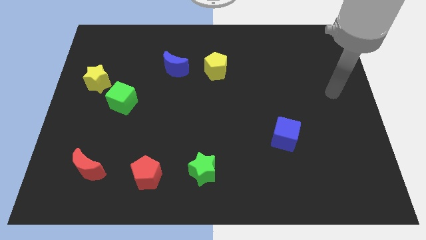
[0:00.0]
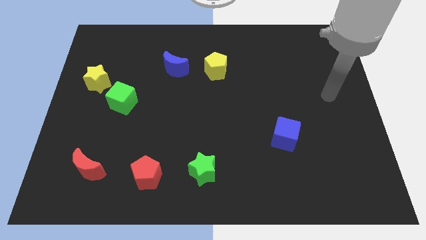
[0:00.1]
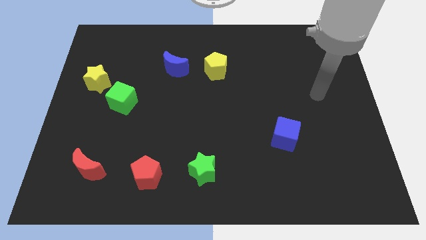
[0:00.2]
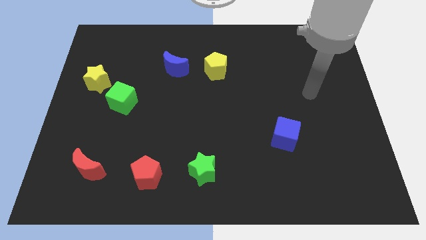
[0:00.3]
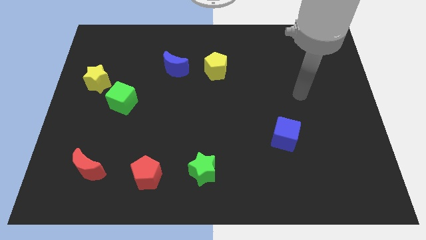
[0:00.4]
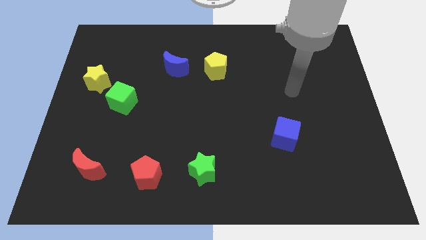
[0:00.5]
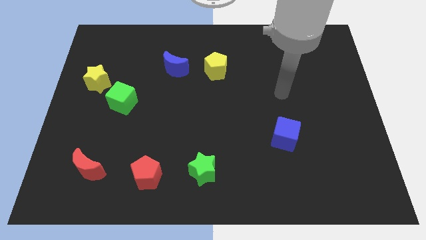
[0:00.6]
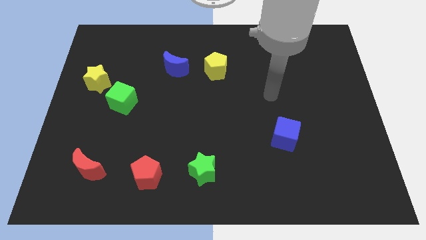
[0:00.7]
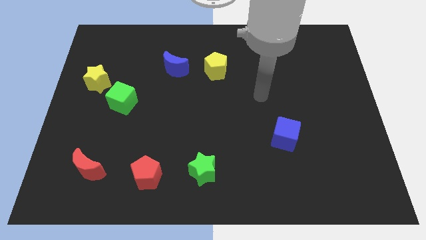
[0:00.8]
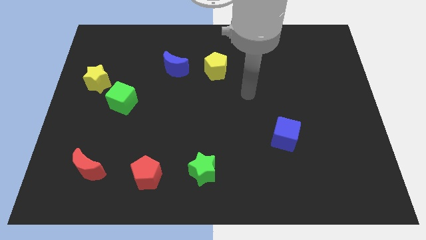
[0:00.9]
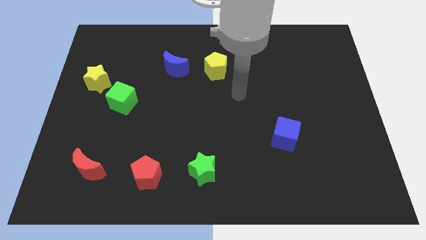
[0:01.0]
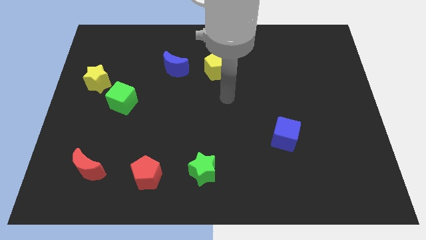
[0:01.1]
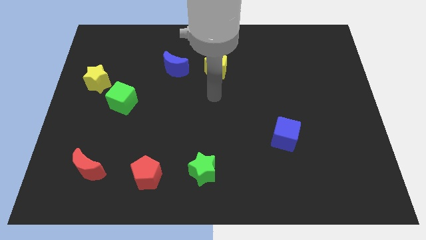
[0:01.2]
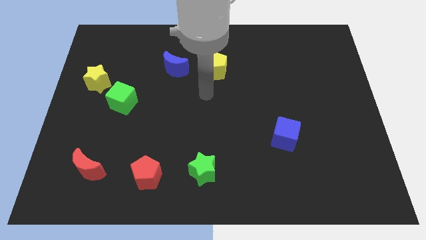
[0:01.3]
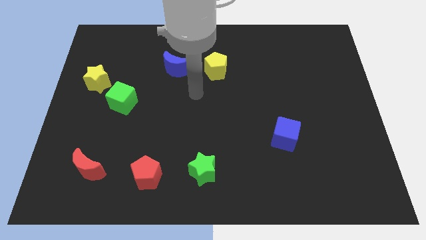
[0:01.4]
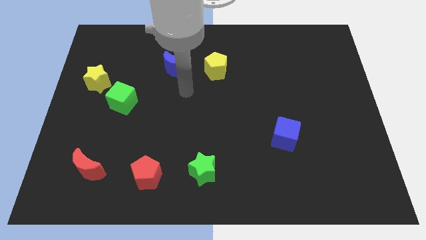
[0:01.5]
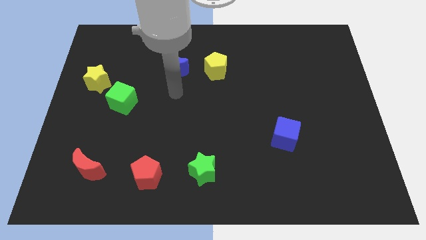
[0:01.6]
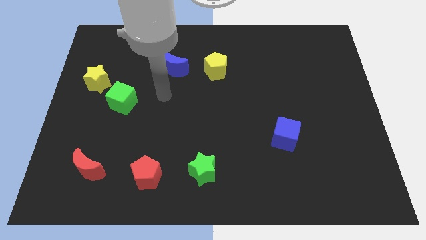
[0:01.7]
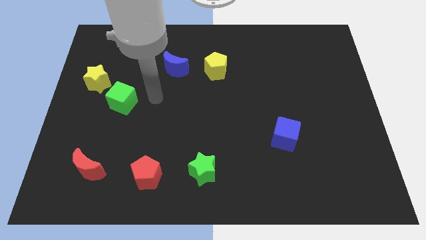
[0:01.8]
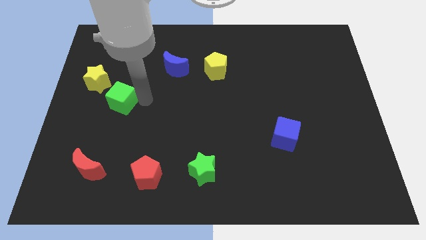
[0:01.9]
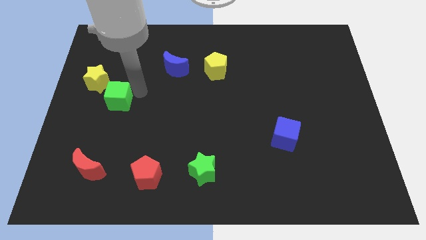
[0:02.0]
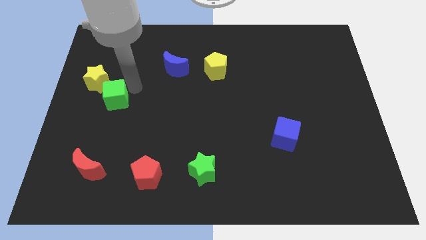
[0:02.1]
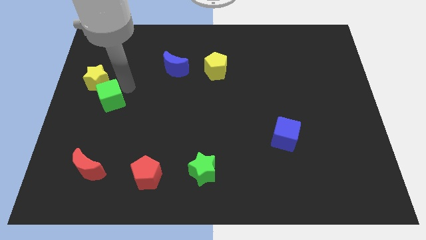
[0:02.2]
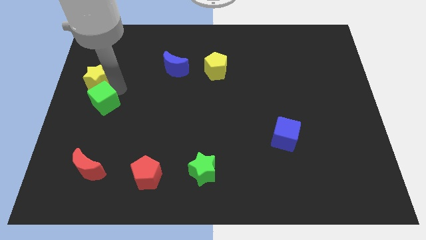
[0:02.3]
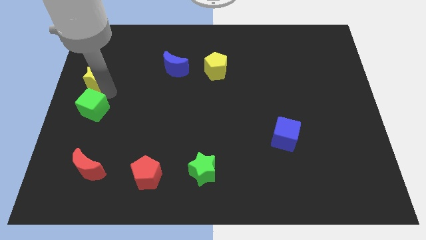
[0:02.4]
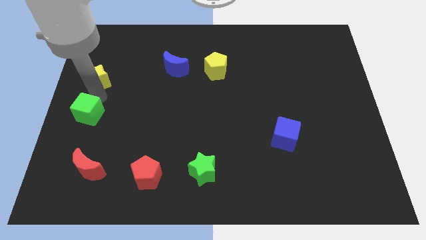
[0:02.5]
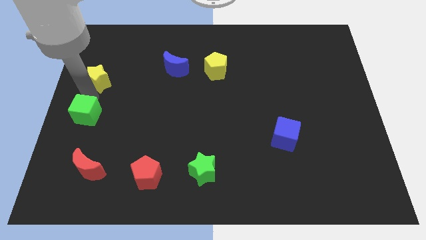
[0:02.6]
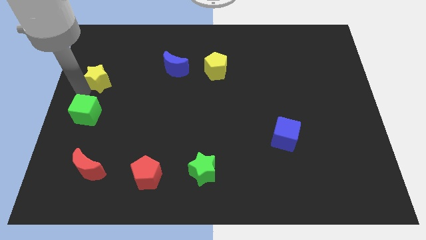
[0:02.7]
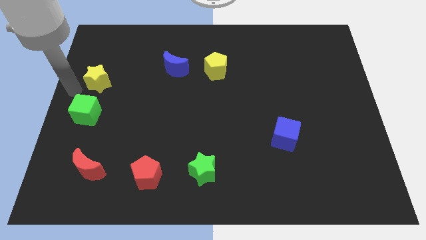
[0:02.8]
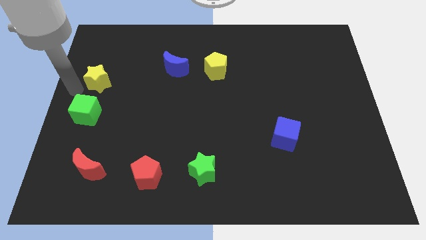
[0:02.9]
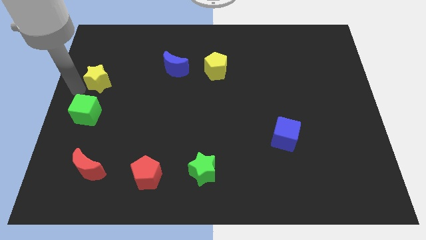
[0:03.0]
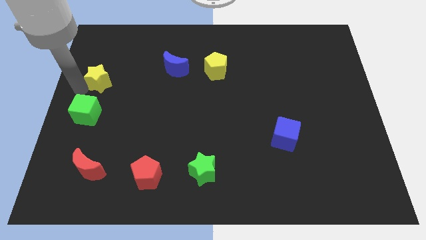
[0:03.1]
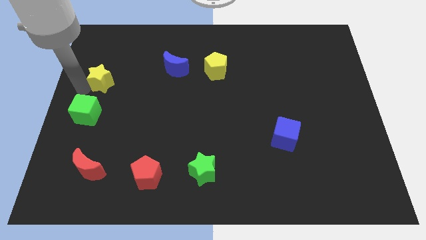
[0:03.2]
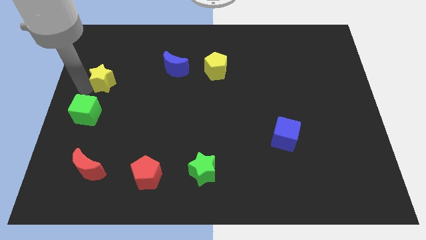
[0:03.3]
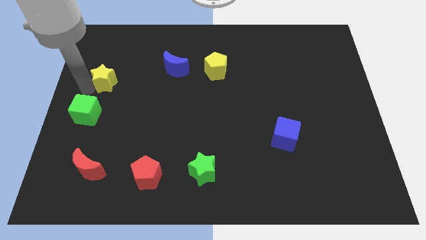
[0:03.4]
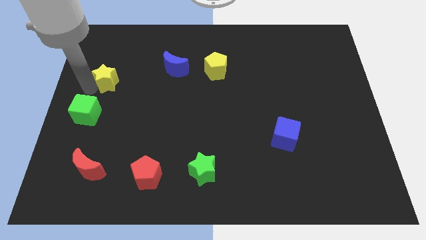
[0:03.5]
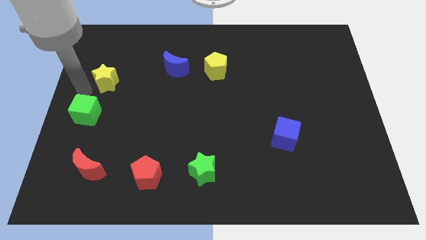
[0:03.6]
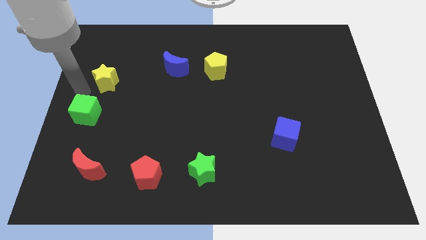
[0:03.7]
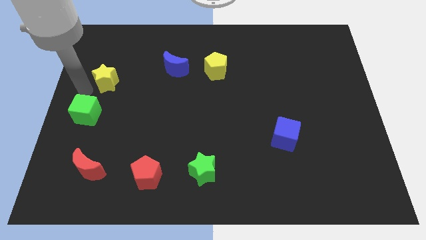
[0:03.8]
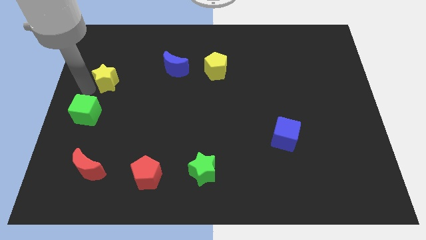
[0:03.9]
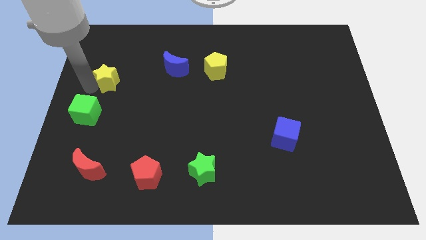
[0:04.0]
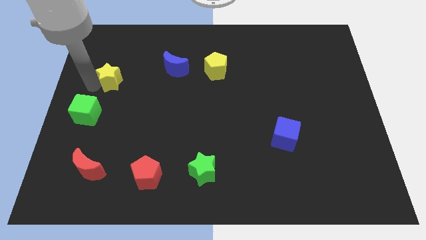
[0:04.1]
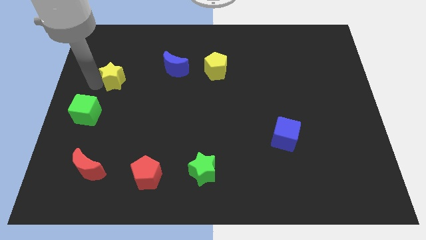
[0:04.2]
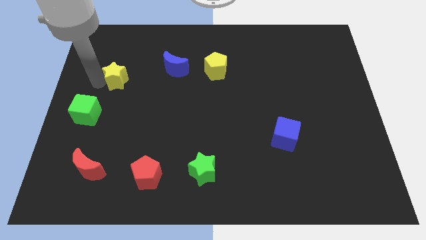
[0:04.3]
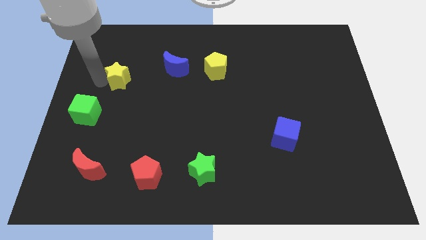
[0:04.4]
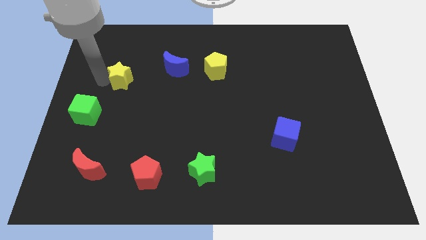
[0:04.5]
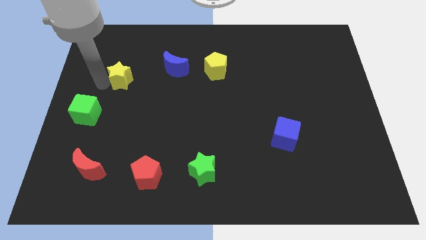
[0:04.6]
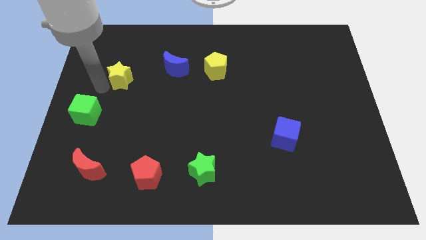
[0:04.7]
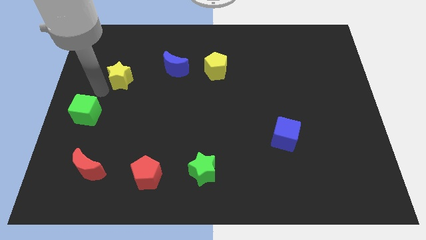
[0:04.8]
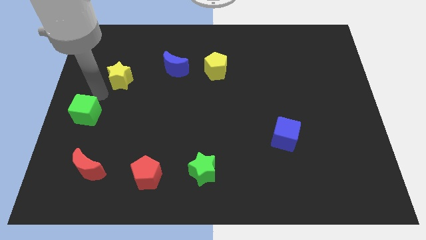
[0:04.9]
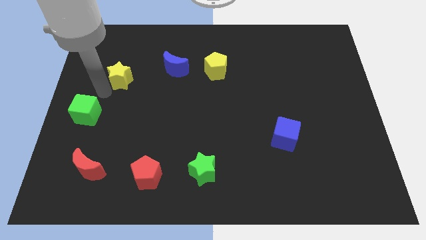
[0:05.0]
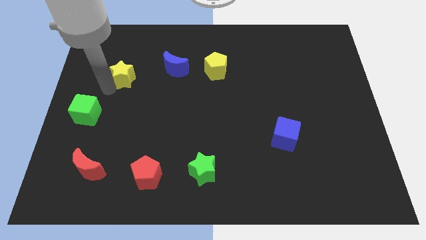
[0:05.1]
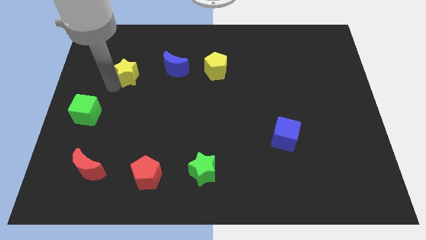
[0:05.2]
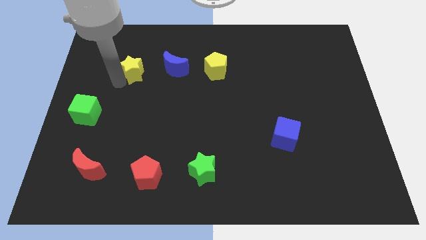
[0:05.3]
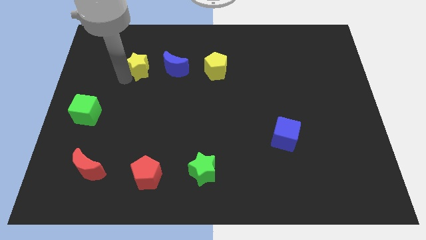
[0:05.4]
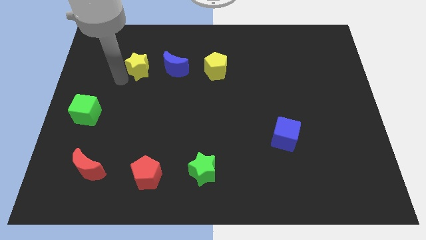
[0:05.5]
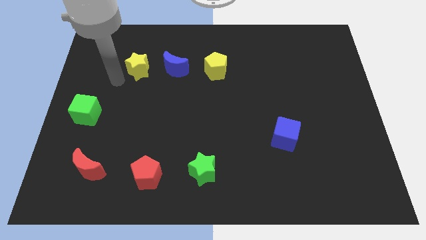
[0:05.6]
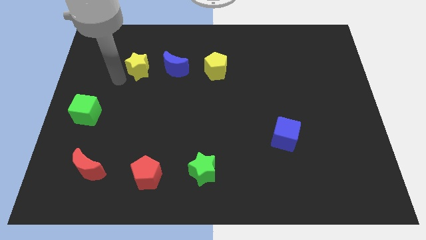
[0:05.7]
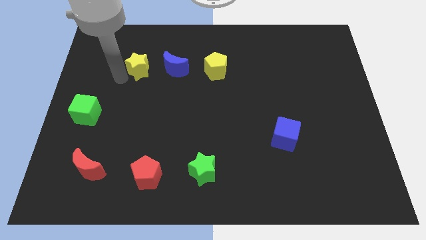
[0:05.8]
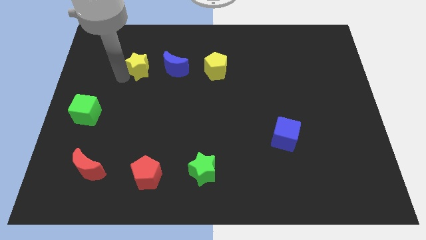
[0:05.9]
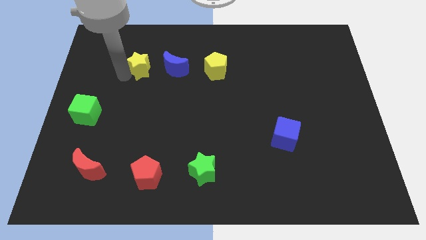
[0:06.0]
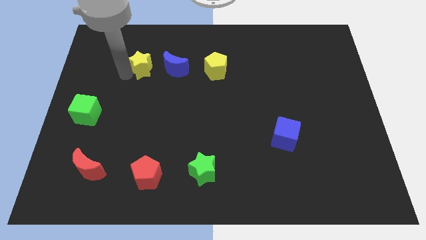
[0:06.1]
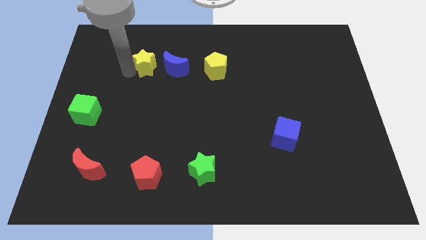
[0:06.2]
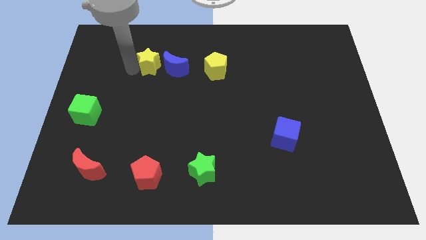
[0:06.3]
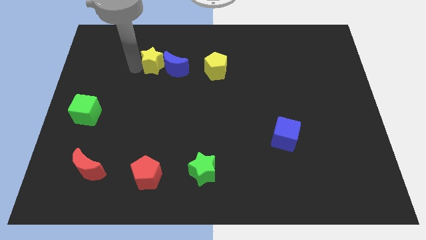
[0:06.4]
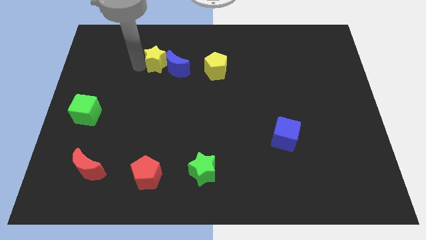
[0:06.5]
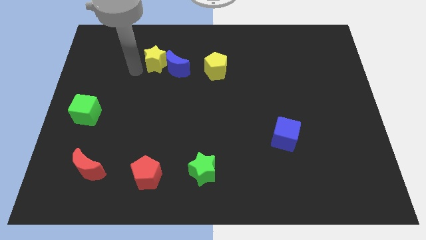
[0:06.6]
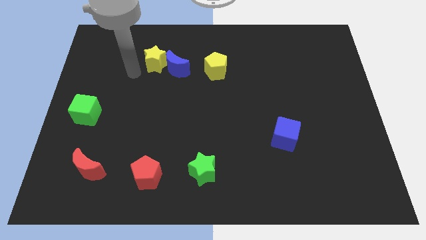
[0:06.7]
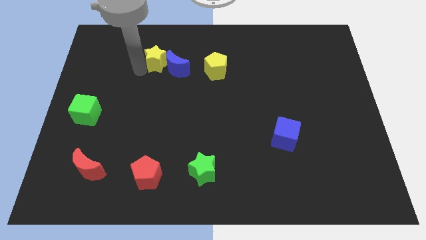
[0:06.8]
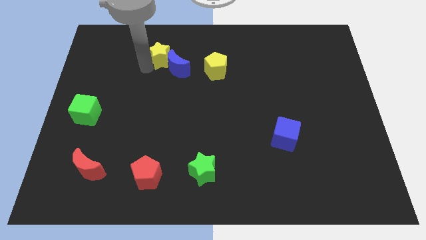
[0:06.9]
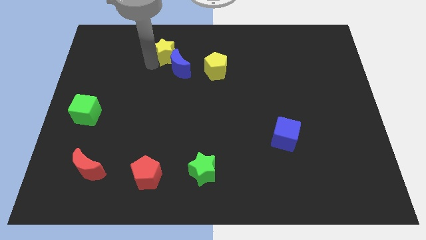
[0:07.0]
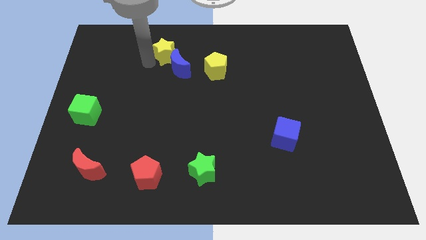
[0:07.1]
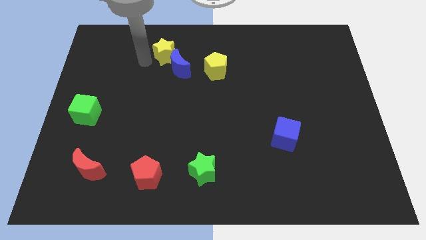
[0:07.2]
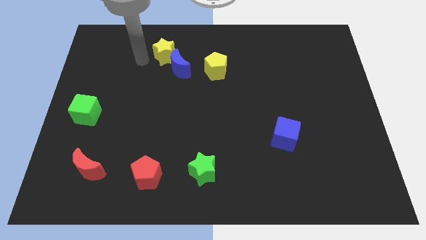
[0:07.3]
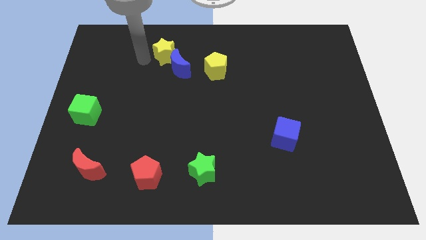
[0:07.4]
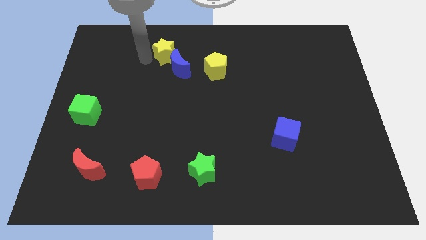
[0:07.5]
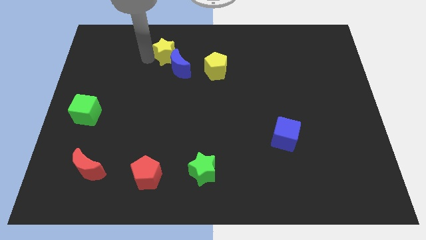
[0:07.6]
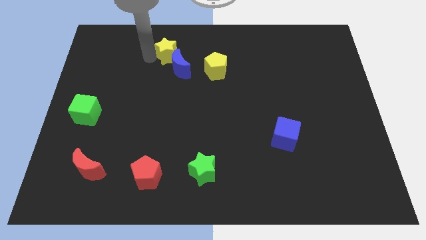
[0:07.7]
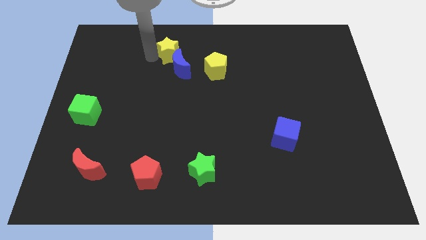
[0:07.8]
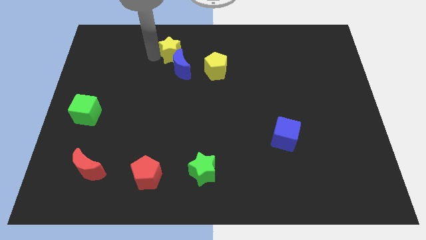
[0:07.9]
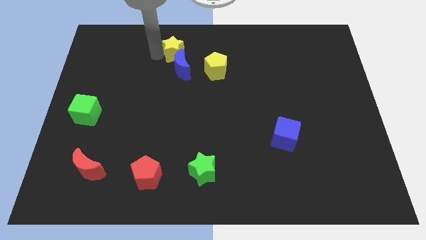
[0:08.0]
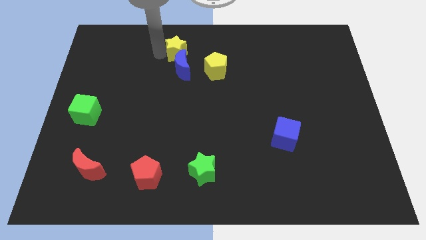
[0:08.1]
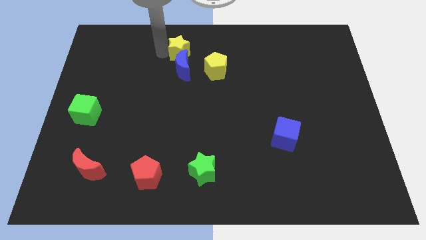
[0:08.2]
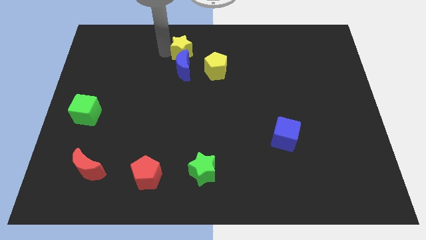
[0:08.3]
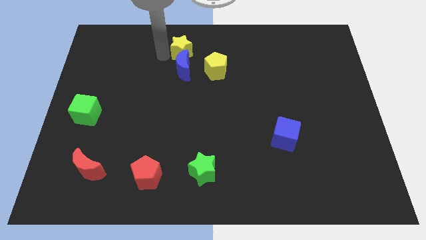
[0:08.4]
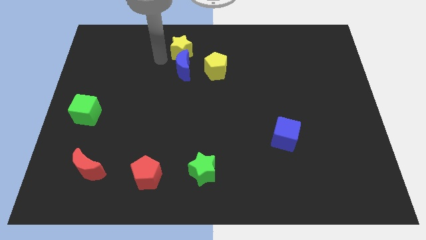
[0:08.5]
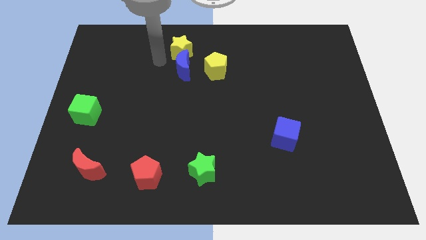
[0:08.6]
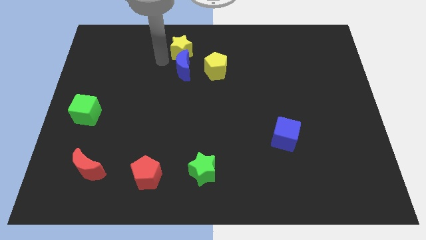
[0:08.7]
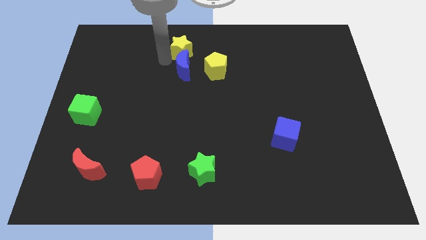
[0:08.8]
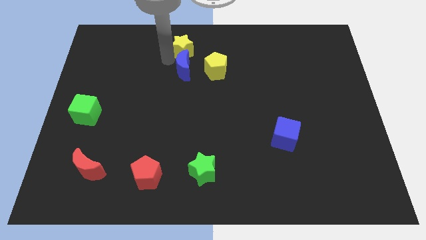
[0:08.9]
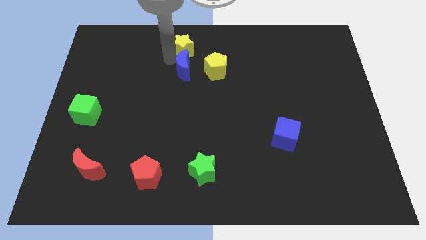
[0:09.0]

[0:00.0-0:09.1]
put the yellow star to the top
